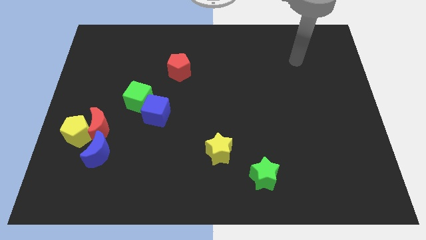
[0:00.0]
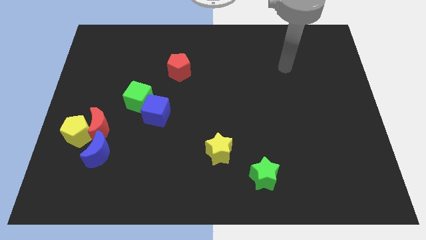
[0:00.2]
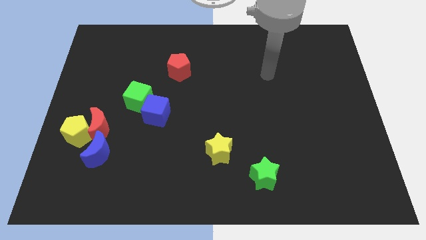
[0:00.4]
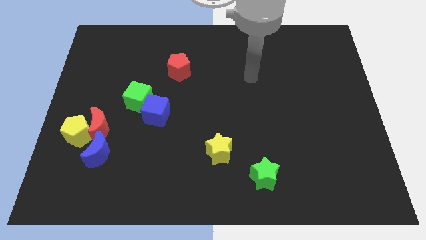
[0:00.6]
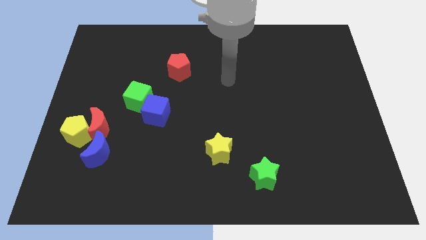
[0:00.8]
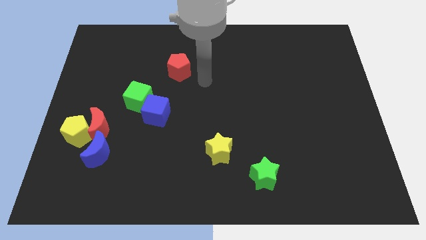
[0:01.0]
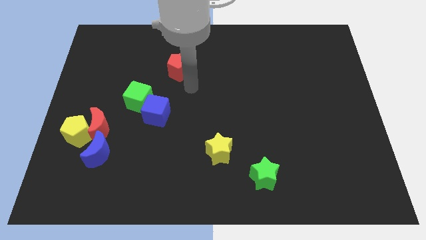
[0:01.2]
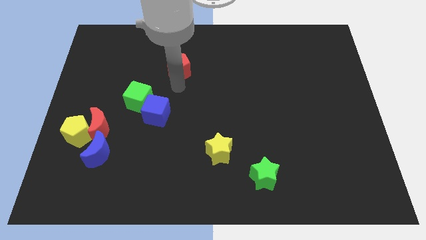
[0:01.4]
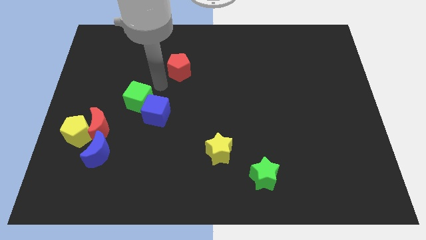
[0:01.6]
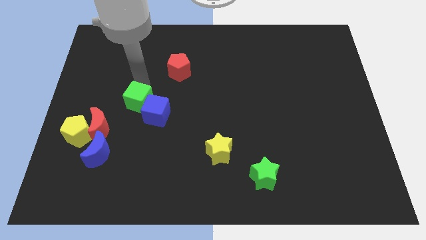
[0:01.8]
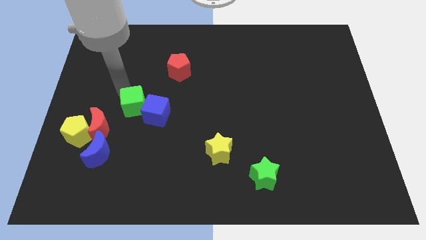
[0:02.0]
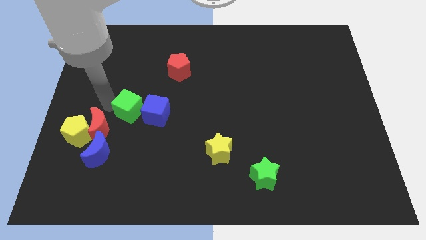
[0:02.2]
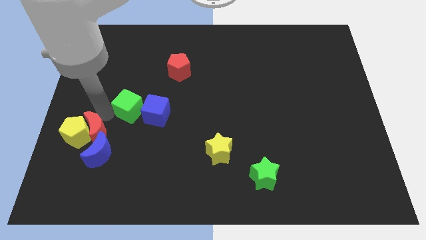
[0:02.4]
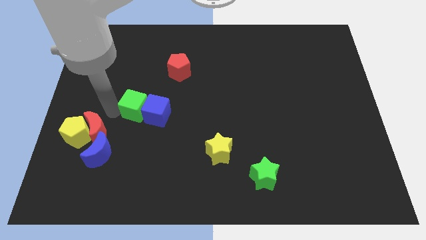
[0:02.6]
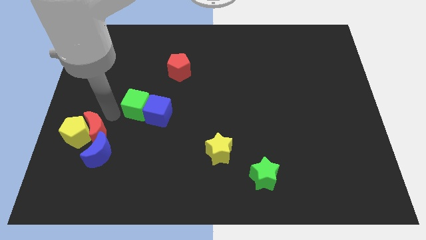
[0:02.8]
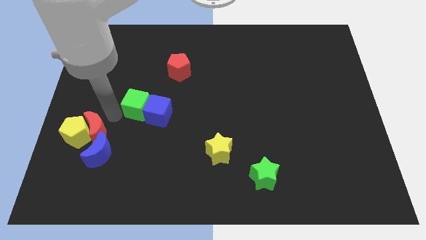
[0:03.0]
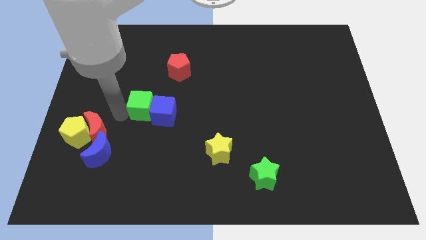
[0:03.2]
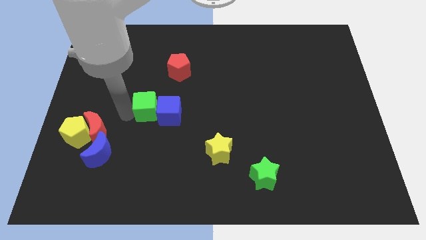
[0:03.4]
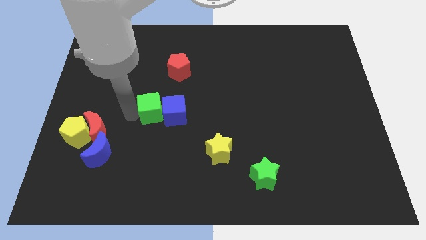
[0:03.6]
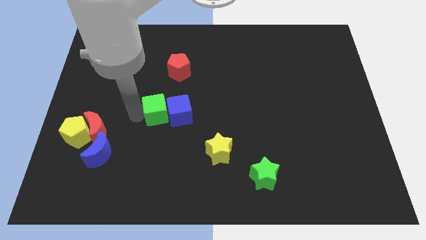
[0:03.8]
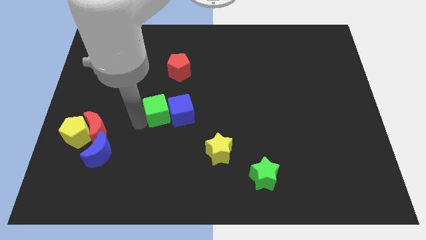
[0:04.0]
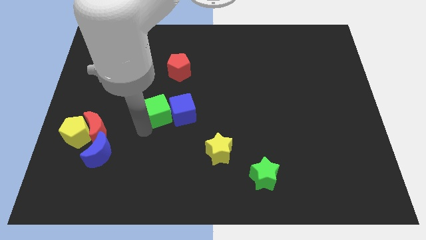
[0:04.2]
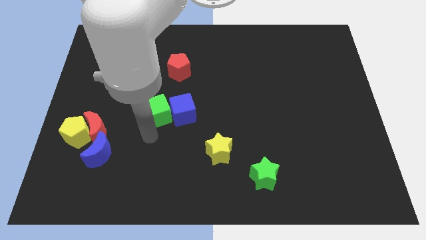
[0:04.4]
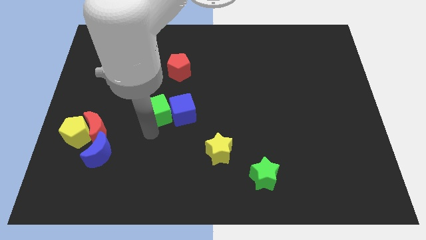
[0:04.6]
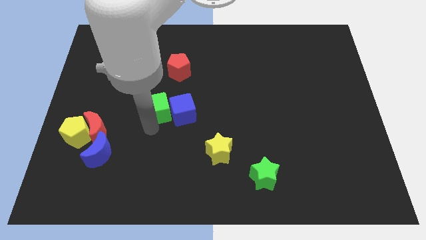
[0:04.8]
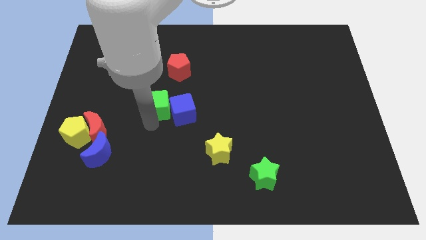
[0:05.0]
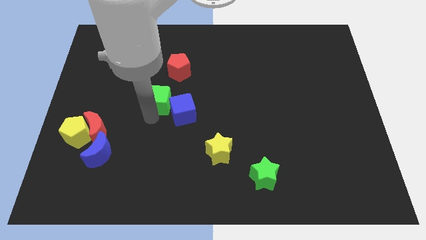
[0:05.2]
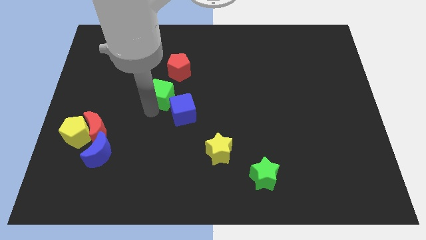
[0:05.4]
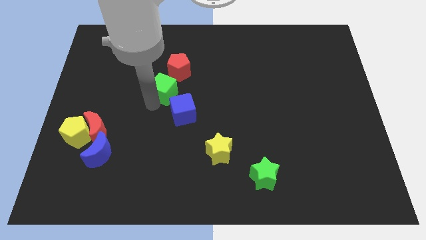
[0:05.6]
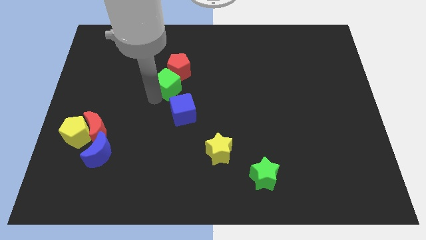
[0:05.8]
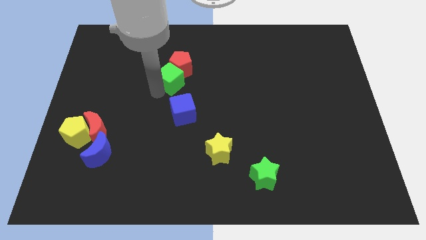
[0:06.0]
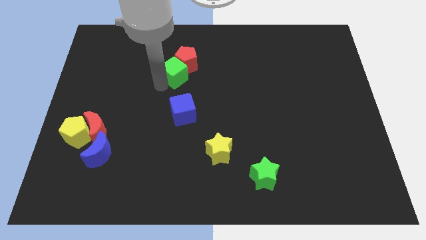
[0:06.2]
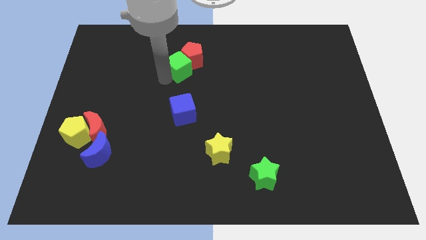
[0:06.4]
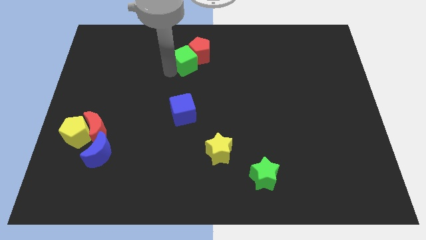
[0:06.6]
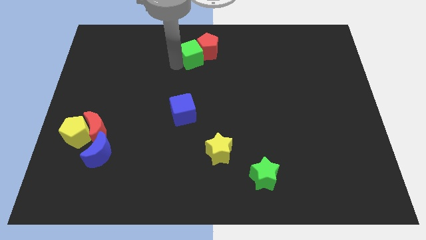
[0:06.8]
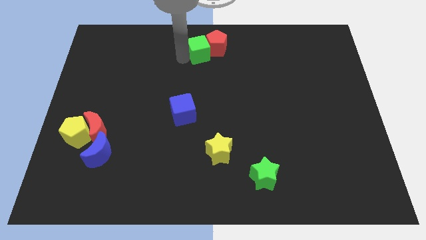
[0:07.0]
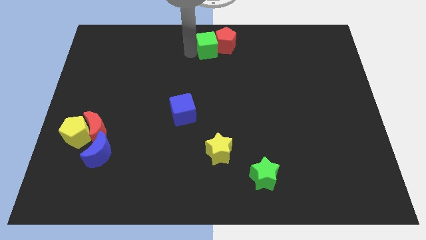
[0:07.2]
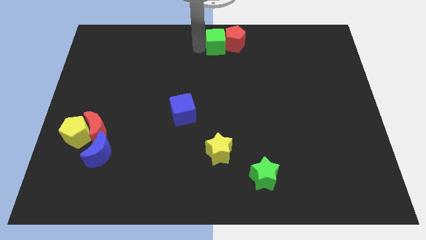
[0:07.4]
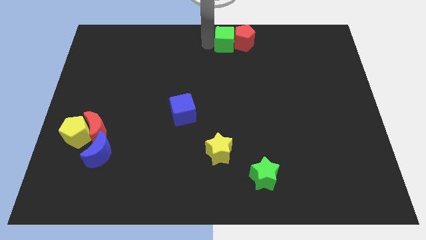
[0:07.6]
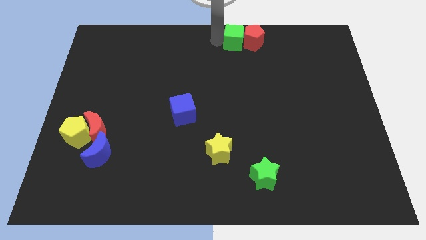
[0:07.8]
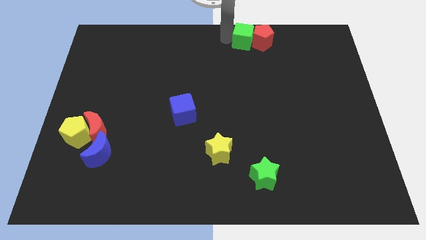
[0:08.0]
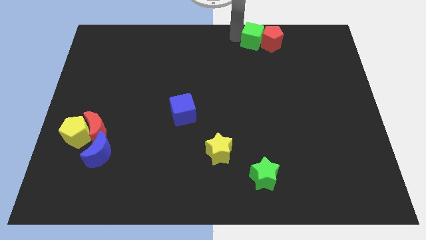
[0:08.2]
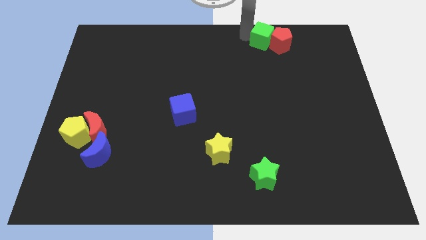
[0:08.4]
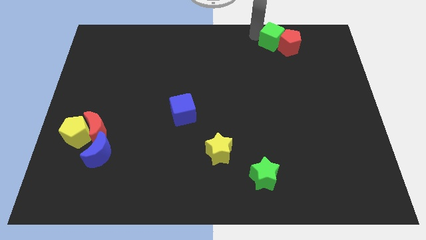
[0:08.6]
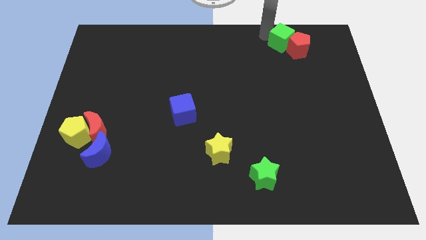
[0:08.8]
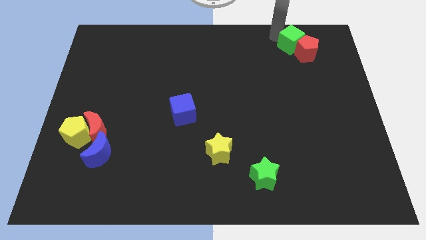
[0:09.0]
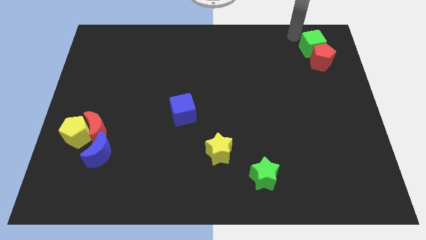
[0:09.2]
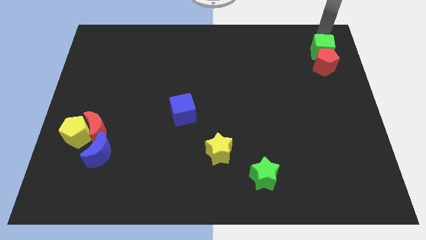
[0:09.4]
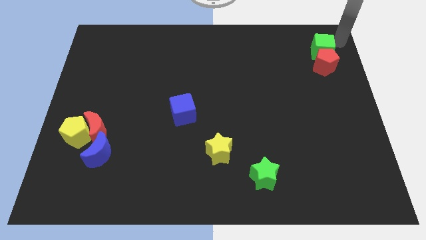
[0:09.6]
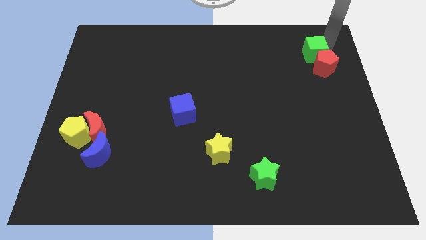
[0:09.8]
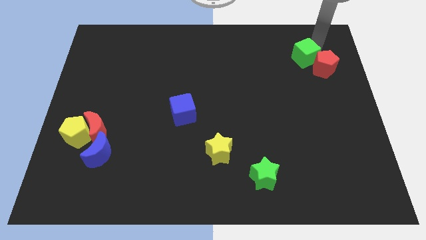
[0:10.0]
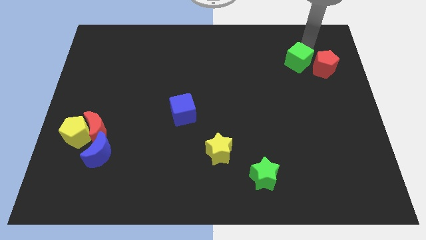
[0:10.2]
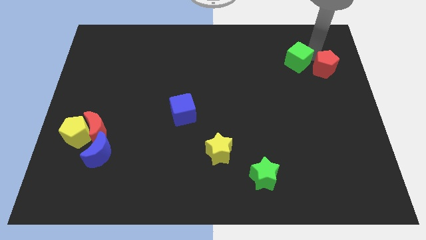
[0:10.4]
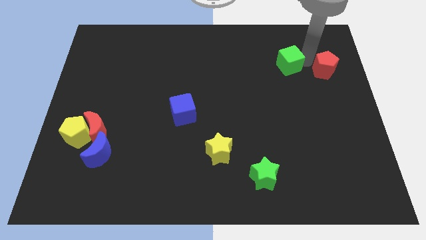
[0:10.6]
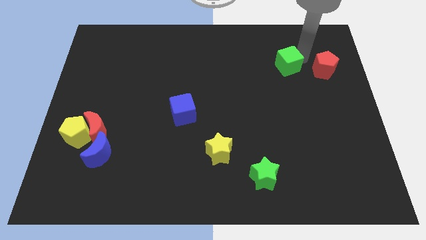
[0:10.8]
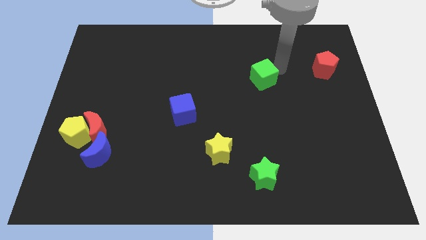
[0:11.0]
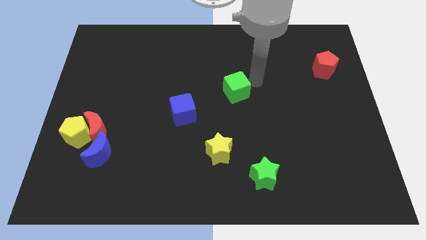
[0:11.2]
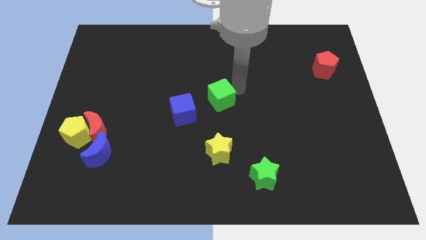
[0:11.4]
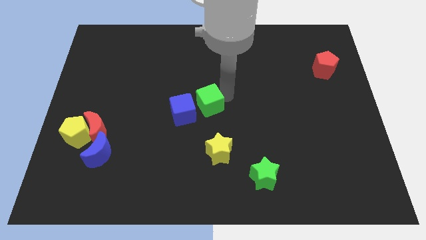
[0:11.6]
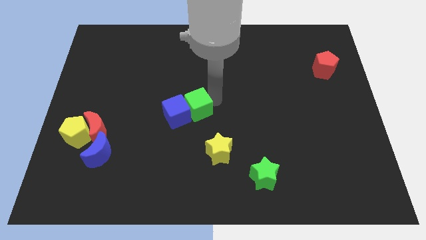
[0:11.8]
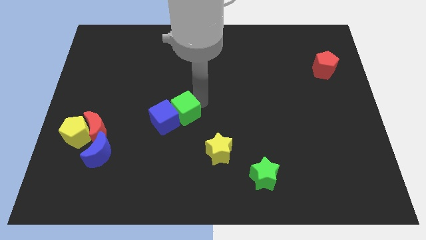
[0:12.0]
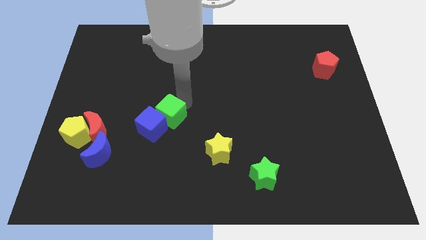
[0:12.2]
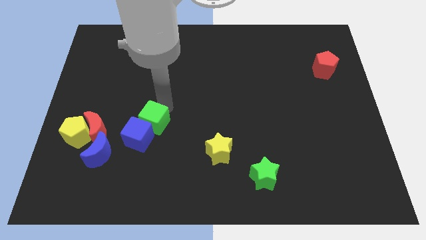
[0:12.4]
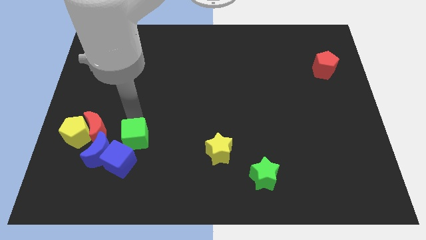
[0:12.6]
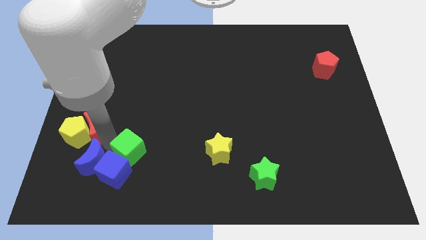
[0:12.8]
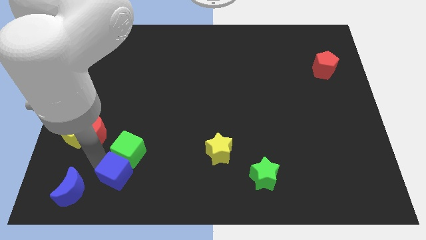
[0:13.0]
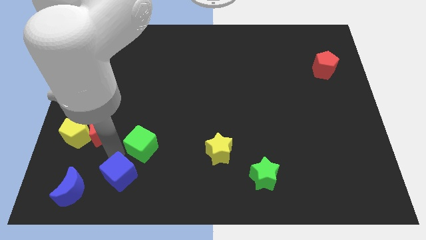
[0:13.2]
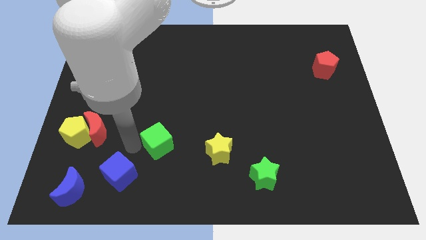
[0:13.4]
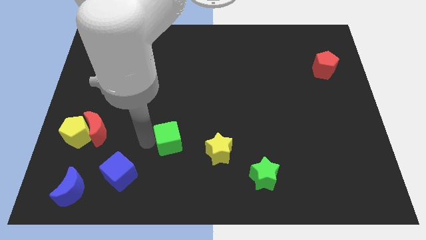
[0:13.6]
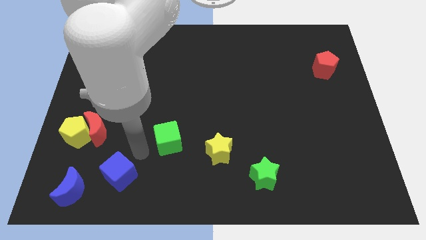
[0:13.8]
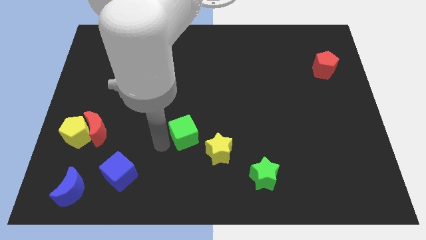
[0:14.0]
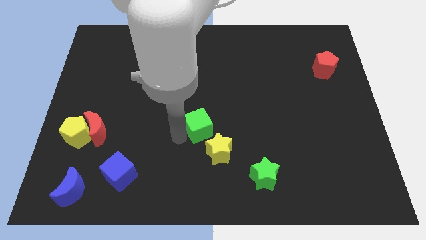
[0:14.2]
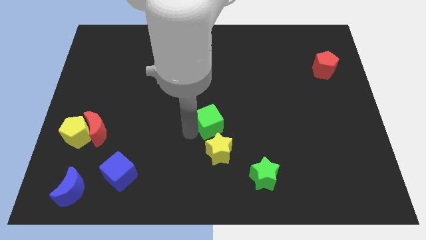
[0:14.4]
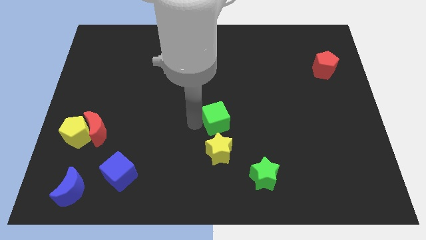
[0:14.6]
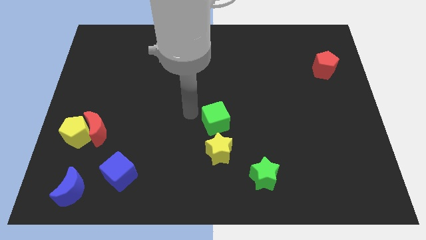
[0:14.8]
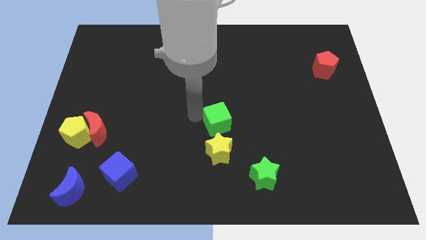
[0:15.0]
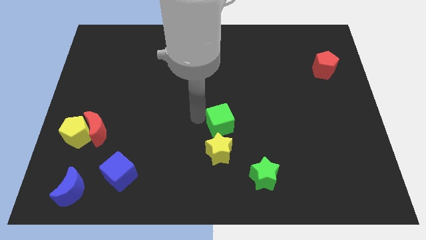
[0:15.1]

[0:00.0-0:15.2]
slide the green cube to the top right of the yellow star
